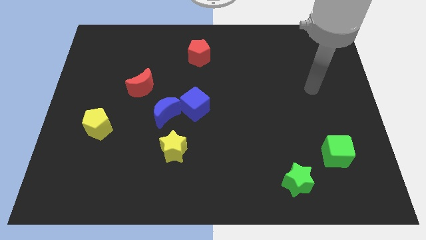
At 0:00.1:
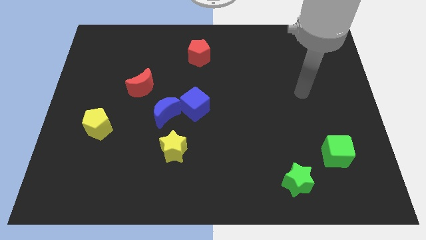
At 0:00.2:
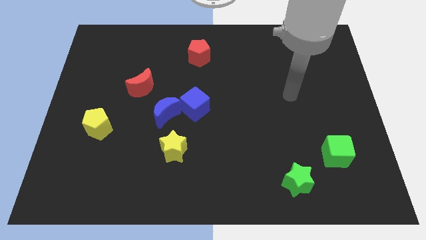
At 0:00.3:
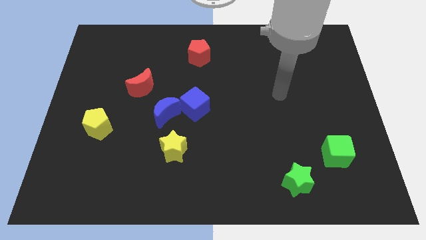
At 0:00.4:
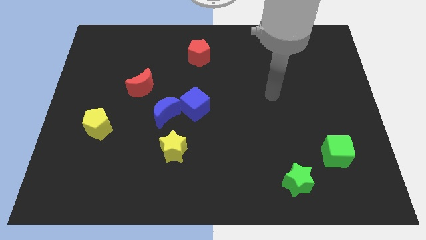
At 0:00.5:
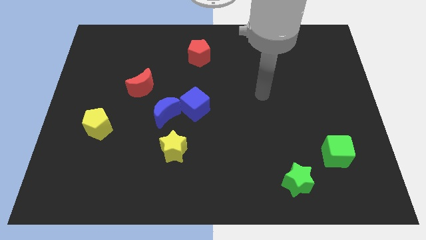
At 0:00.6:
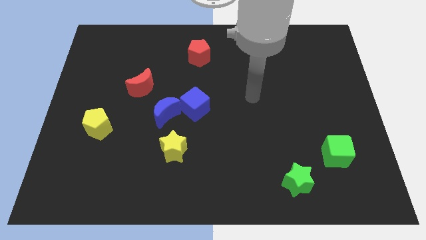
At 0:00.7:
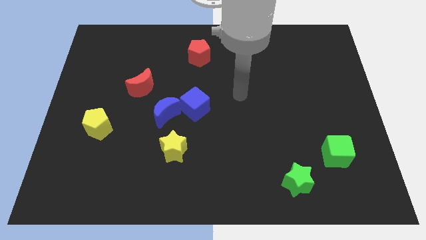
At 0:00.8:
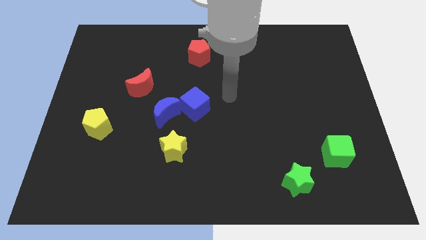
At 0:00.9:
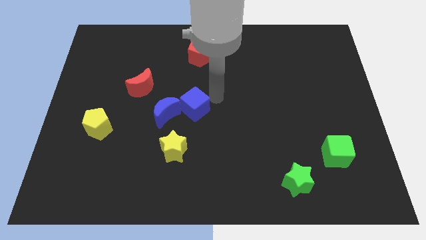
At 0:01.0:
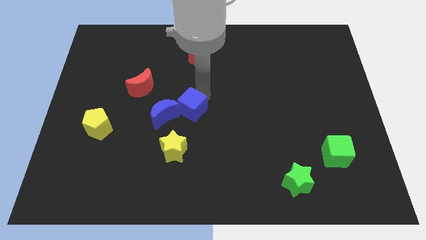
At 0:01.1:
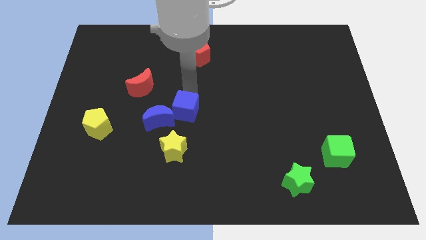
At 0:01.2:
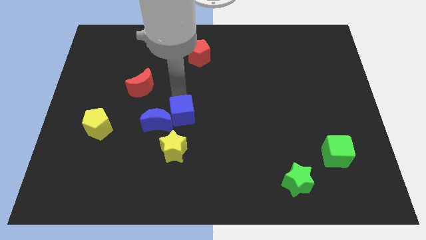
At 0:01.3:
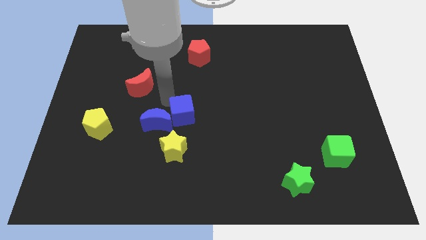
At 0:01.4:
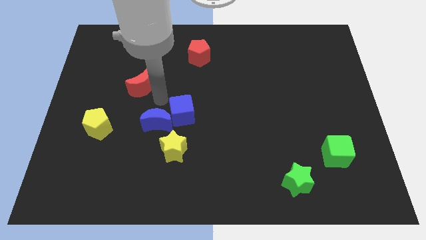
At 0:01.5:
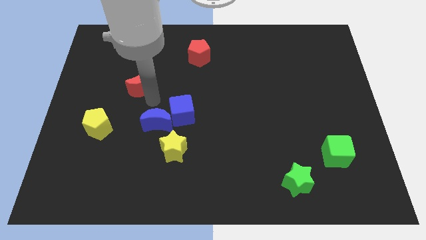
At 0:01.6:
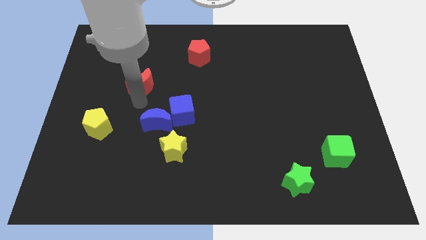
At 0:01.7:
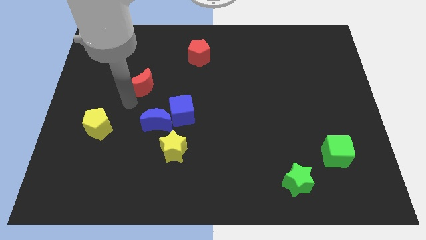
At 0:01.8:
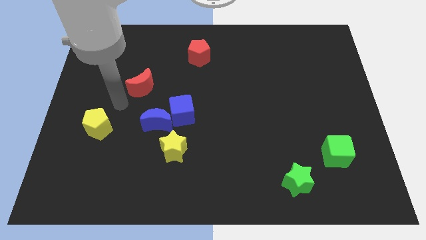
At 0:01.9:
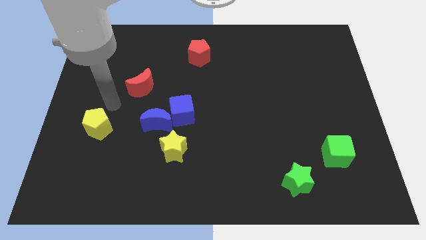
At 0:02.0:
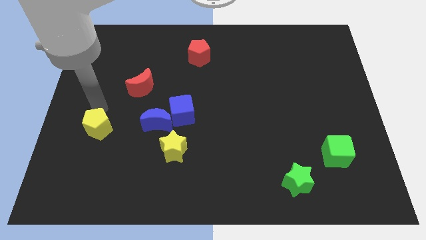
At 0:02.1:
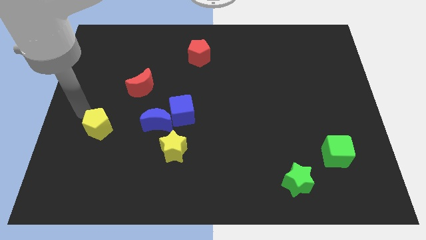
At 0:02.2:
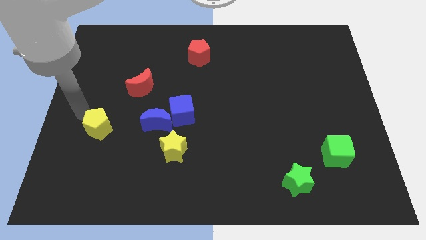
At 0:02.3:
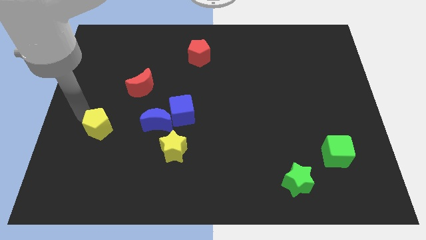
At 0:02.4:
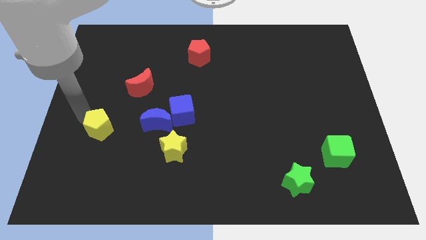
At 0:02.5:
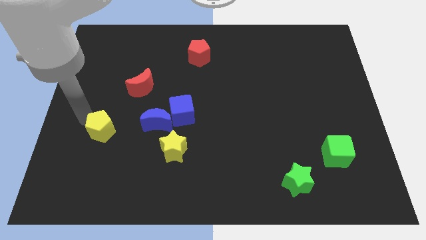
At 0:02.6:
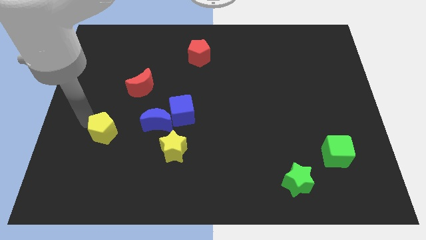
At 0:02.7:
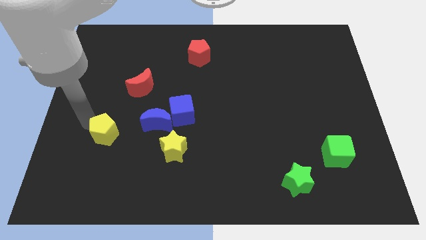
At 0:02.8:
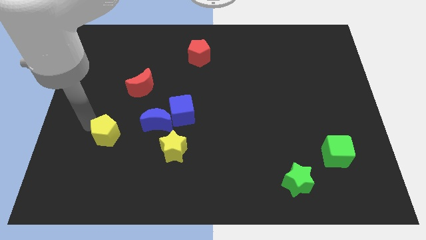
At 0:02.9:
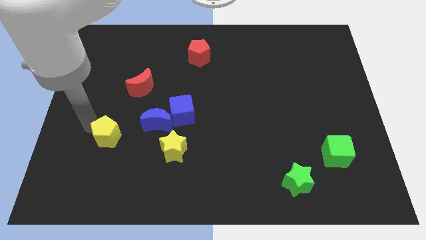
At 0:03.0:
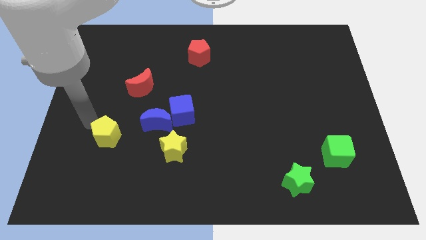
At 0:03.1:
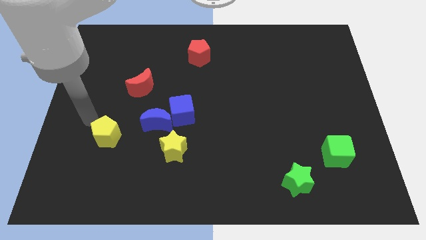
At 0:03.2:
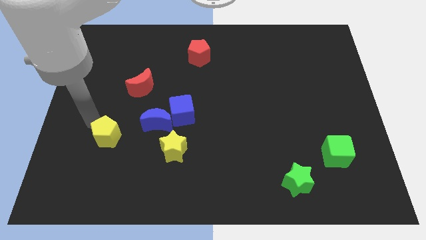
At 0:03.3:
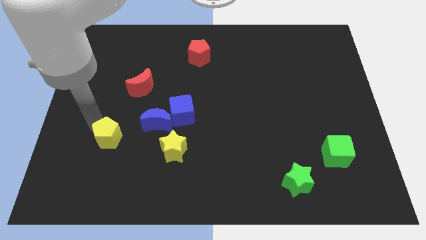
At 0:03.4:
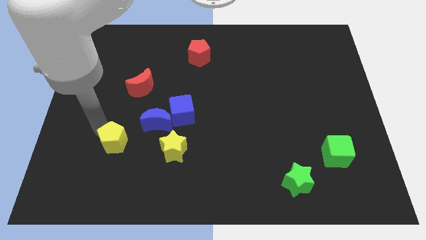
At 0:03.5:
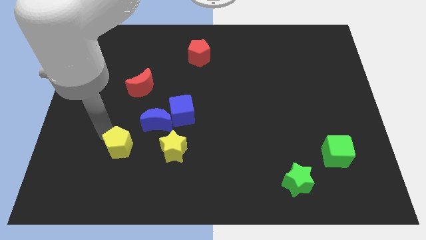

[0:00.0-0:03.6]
slide the yellow pentagon downwards and right a little

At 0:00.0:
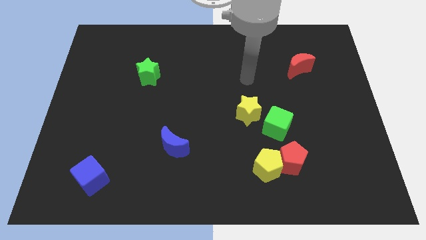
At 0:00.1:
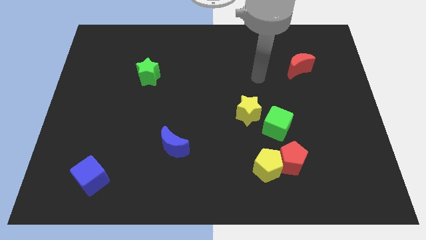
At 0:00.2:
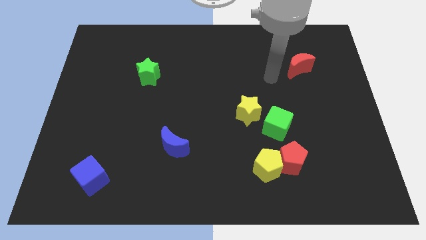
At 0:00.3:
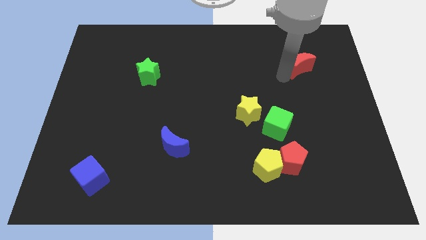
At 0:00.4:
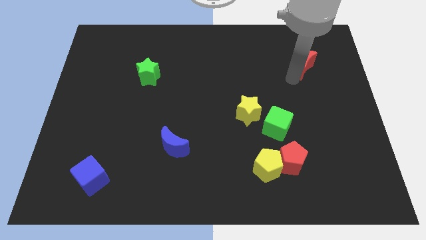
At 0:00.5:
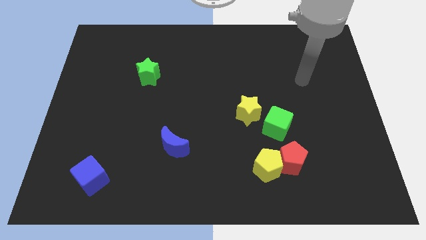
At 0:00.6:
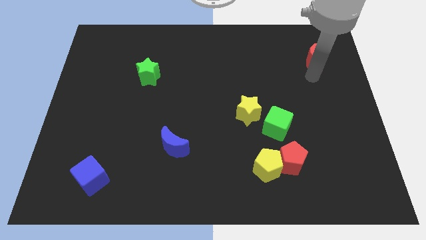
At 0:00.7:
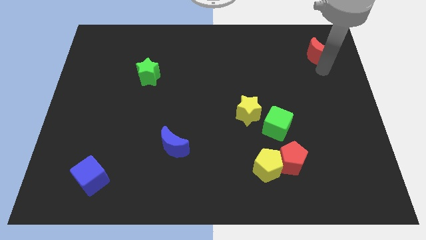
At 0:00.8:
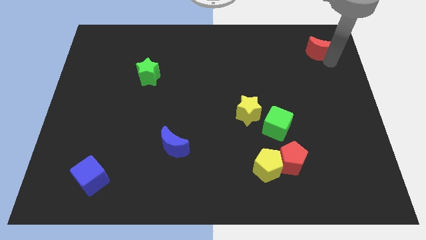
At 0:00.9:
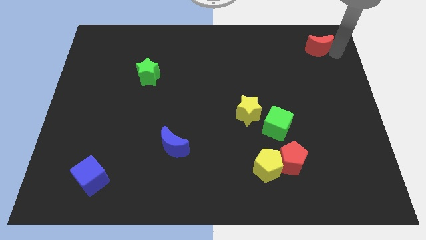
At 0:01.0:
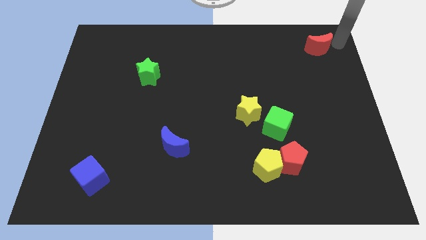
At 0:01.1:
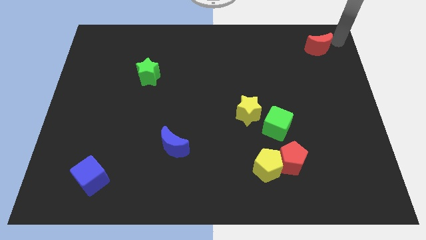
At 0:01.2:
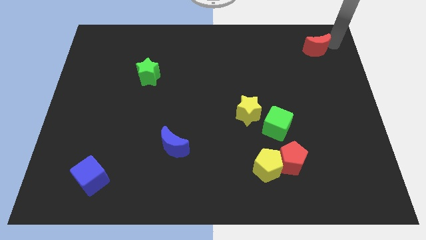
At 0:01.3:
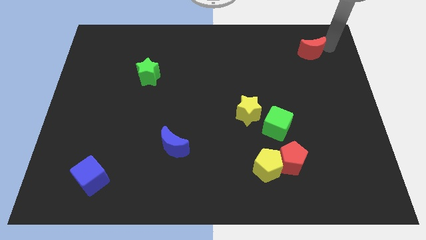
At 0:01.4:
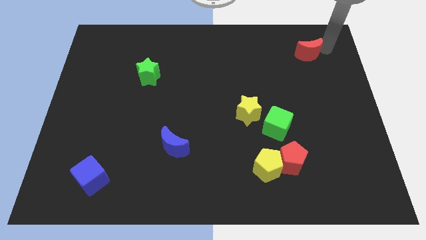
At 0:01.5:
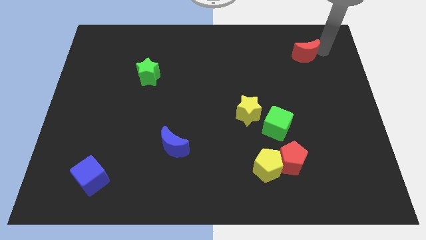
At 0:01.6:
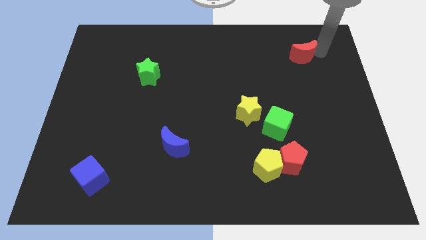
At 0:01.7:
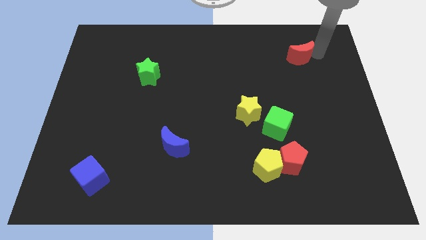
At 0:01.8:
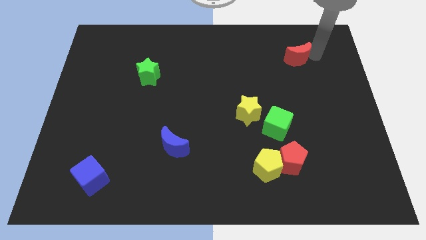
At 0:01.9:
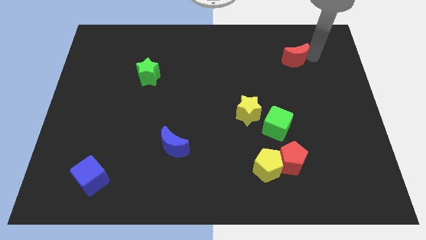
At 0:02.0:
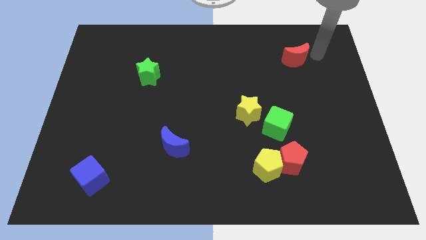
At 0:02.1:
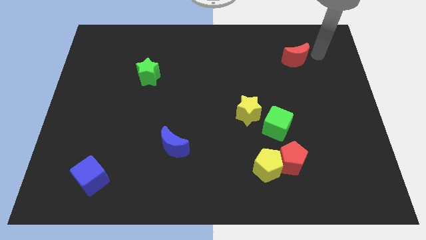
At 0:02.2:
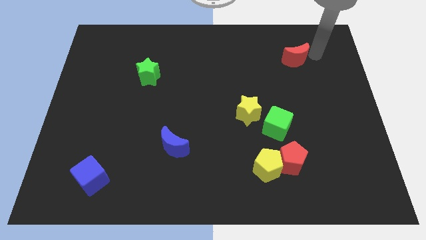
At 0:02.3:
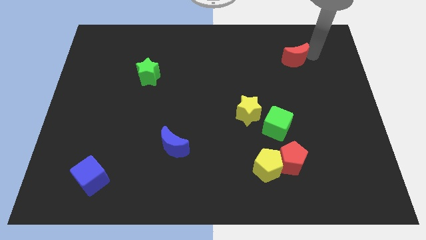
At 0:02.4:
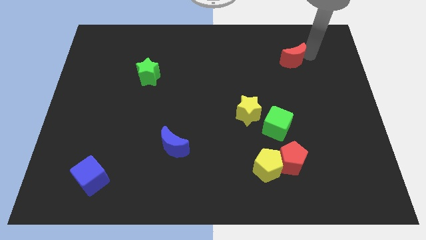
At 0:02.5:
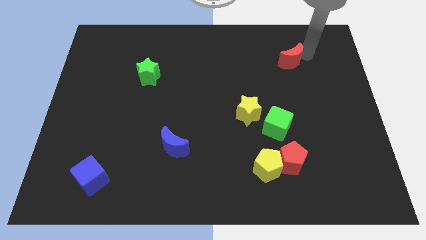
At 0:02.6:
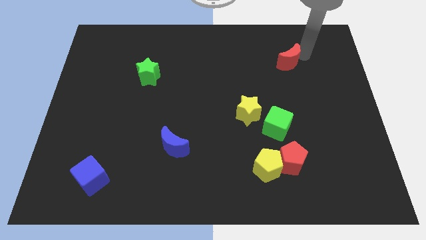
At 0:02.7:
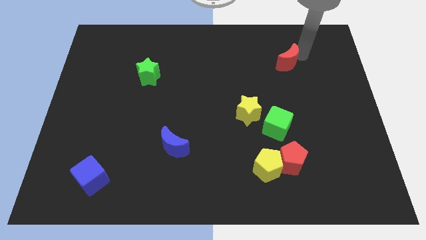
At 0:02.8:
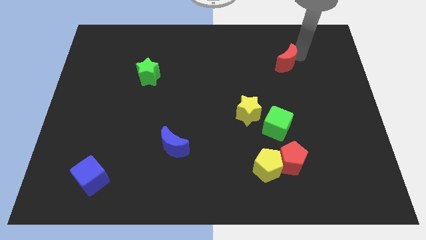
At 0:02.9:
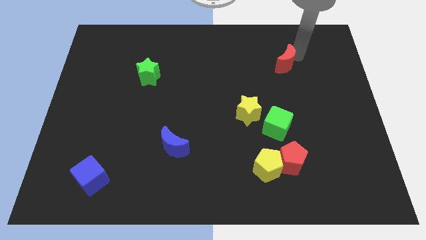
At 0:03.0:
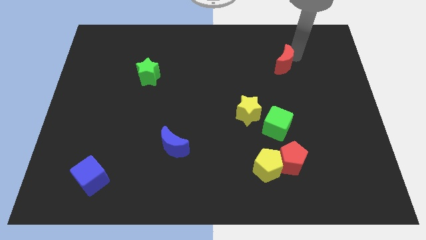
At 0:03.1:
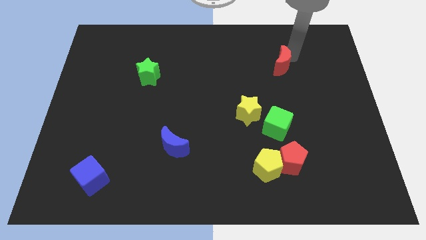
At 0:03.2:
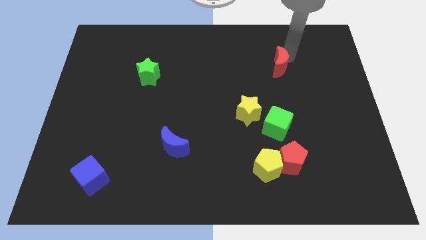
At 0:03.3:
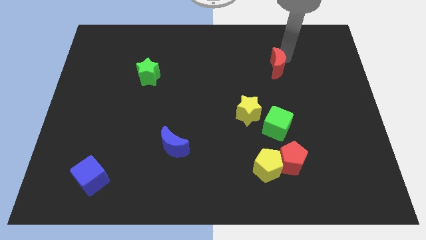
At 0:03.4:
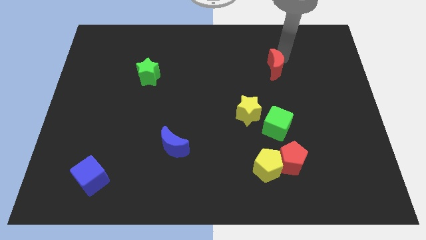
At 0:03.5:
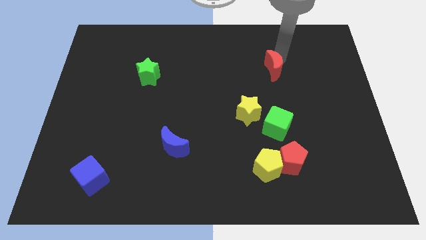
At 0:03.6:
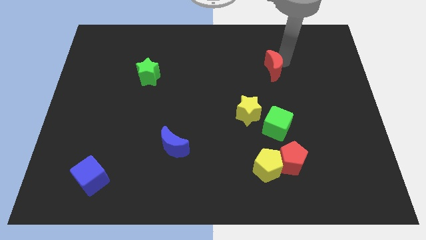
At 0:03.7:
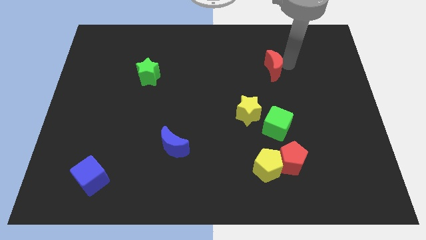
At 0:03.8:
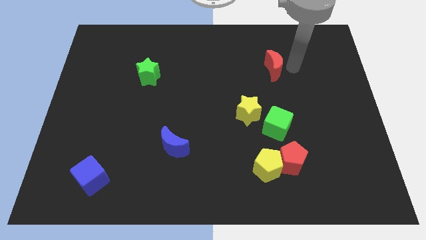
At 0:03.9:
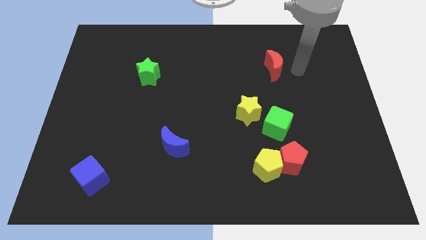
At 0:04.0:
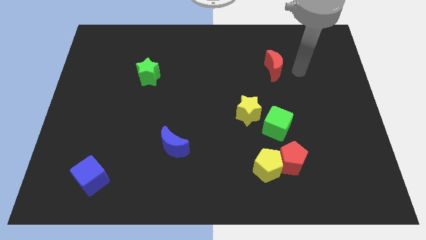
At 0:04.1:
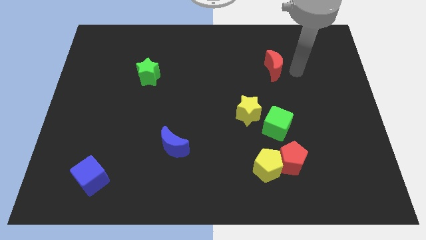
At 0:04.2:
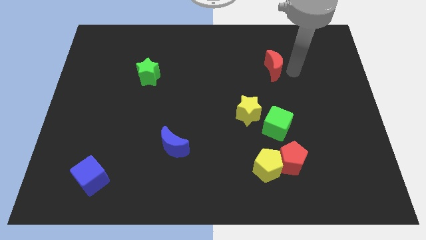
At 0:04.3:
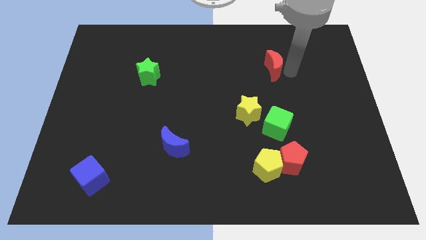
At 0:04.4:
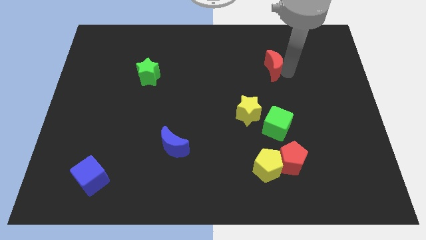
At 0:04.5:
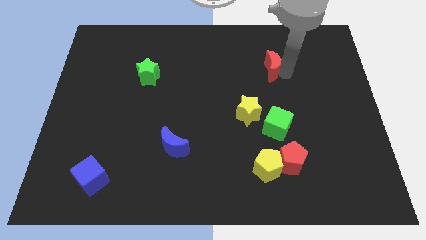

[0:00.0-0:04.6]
move the red moon to the left somewhat
